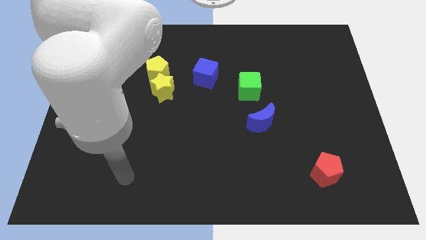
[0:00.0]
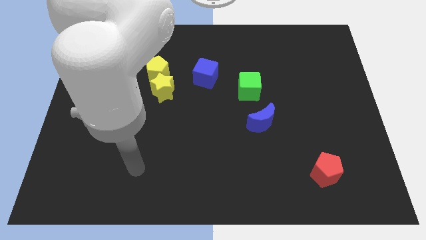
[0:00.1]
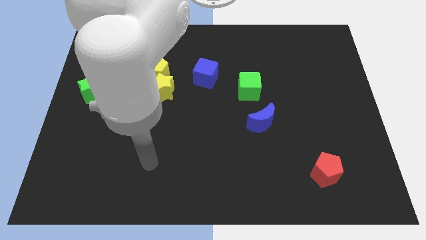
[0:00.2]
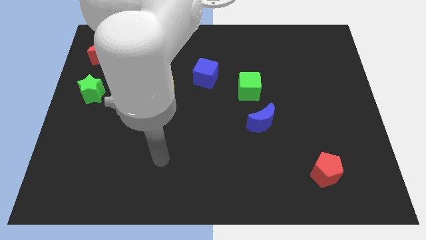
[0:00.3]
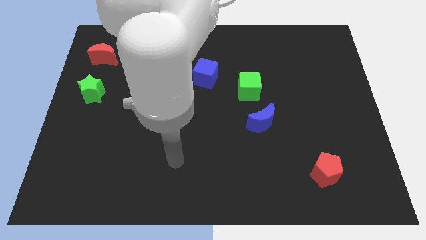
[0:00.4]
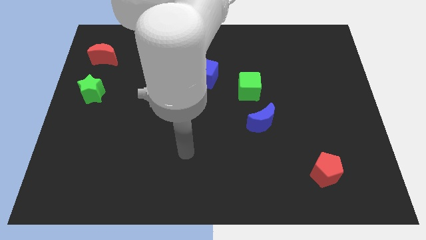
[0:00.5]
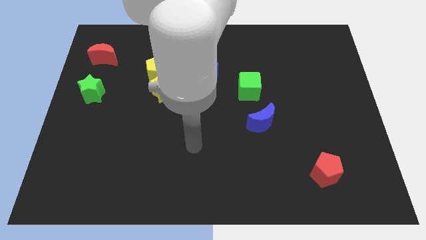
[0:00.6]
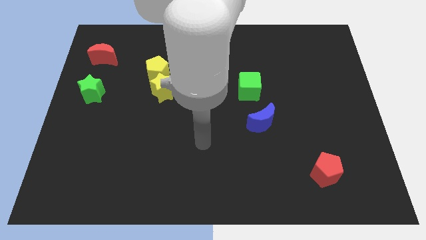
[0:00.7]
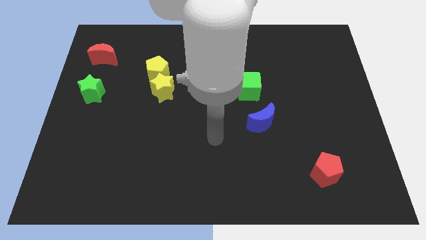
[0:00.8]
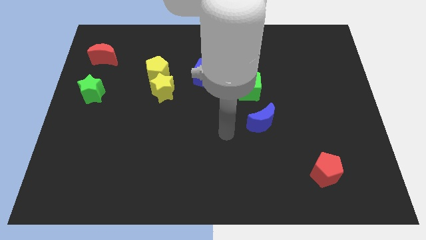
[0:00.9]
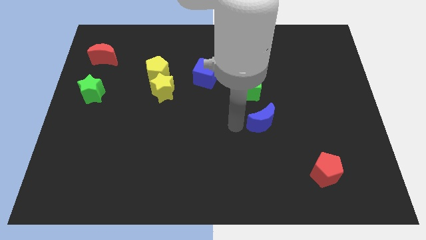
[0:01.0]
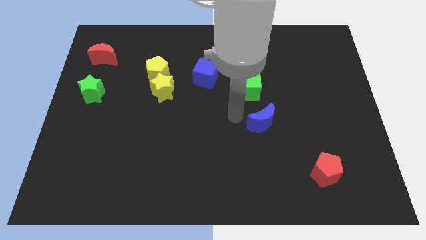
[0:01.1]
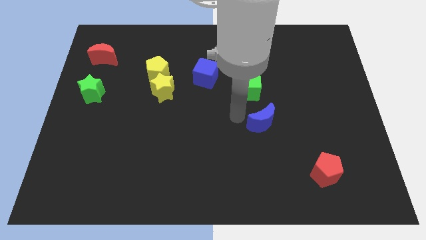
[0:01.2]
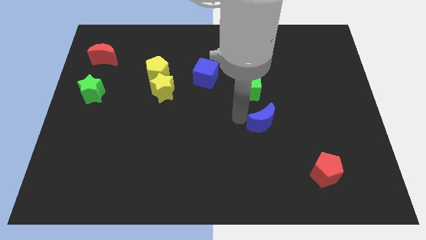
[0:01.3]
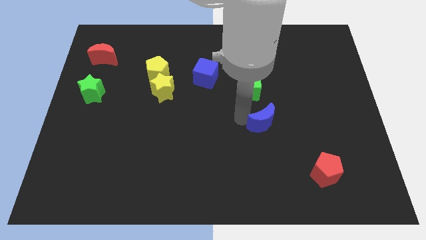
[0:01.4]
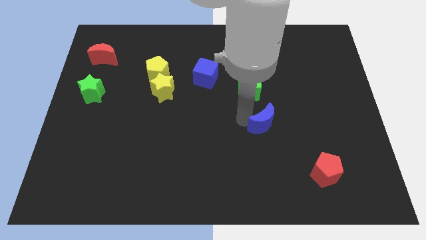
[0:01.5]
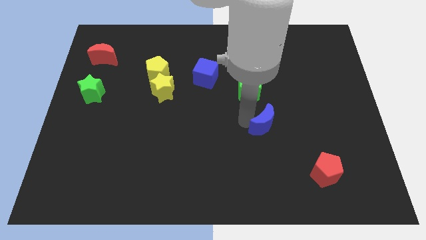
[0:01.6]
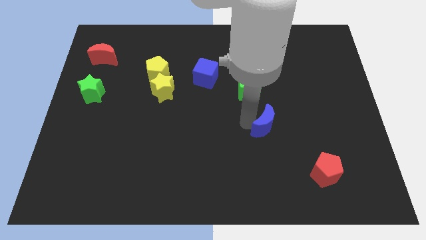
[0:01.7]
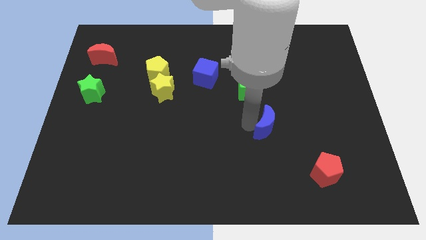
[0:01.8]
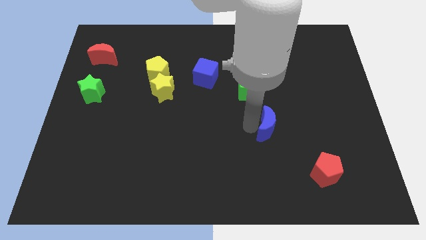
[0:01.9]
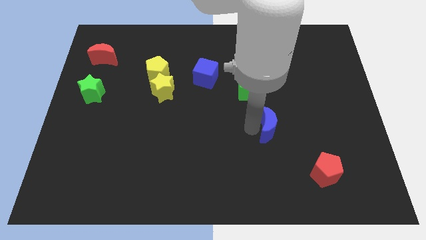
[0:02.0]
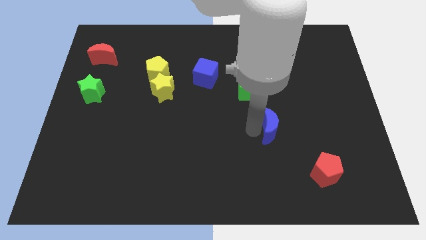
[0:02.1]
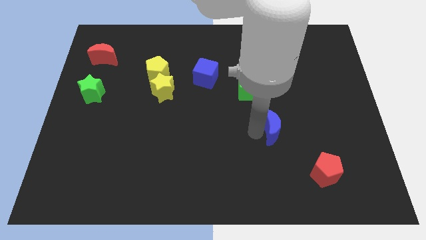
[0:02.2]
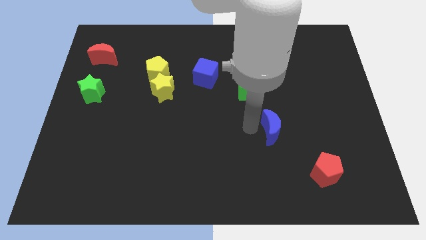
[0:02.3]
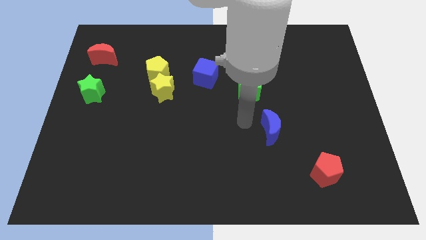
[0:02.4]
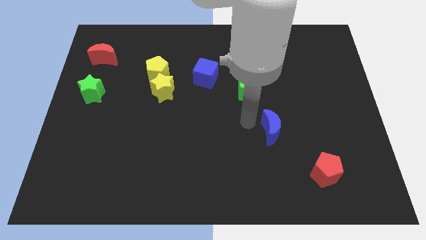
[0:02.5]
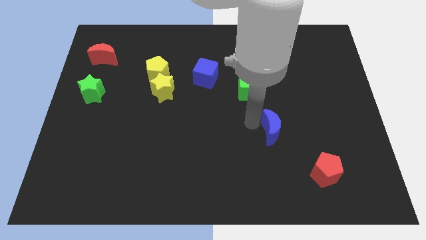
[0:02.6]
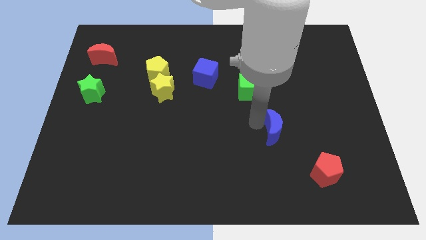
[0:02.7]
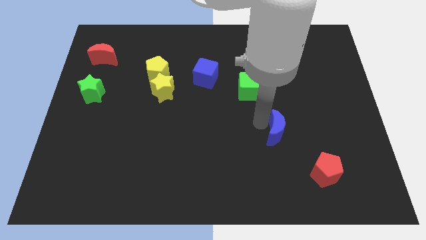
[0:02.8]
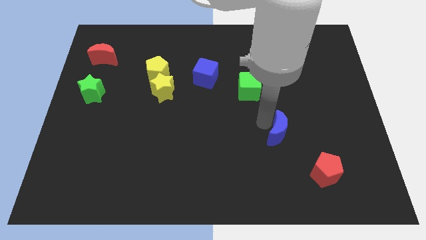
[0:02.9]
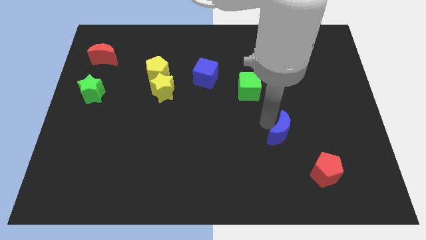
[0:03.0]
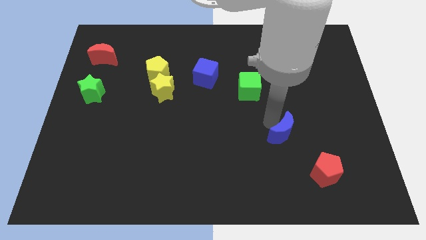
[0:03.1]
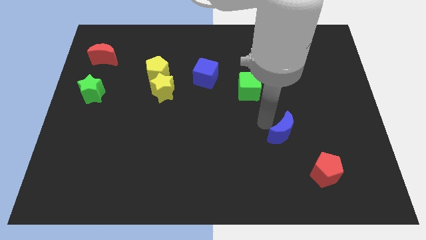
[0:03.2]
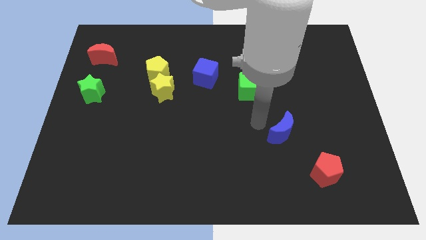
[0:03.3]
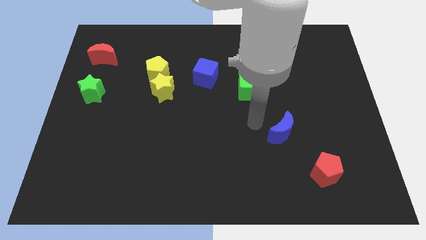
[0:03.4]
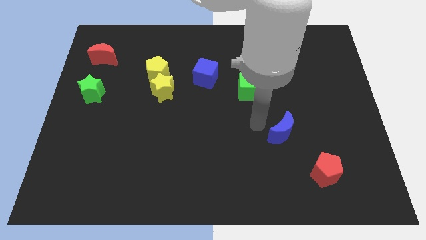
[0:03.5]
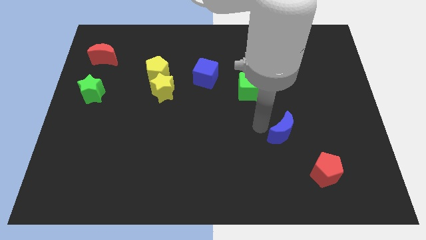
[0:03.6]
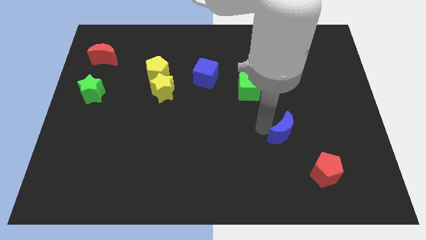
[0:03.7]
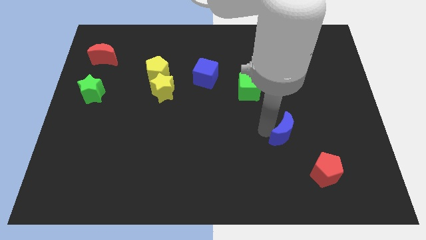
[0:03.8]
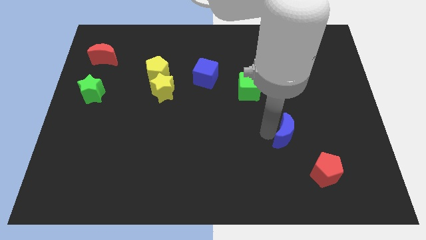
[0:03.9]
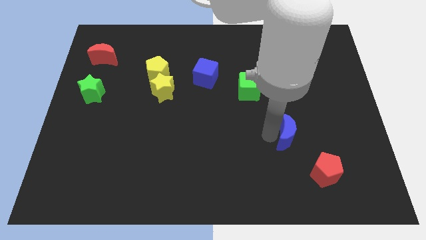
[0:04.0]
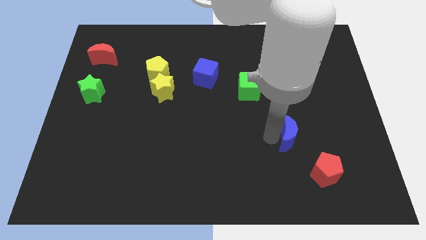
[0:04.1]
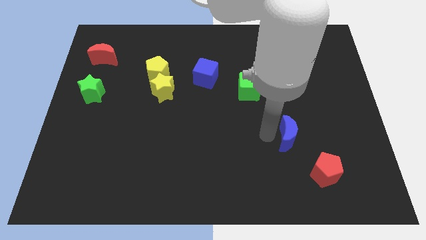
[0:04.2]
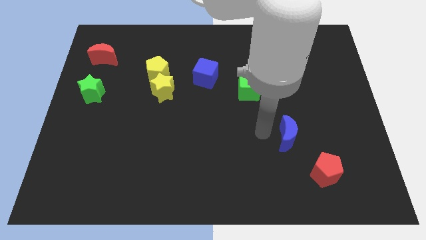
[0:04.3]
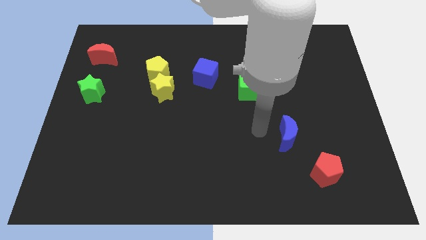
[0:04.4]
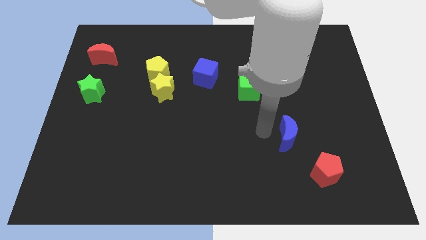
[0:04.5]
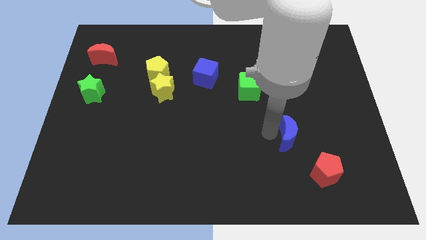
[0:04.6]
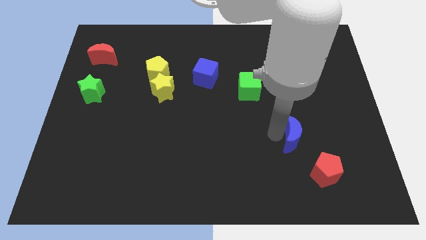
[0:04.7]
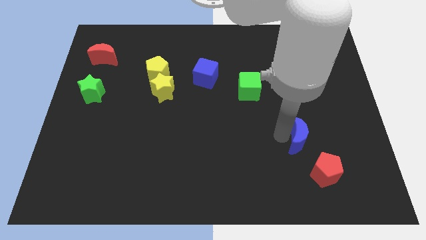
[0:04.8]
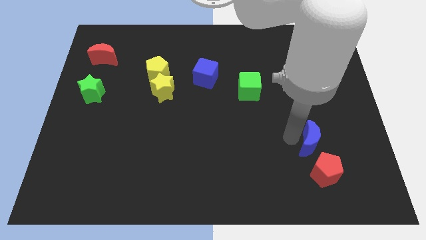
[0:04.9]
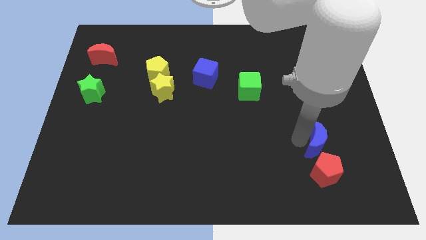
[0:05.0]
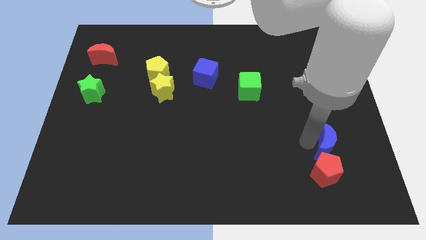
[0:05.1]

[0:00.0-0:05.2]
push the blue moon diagonally up and to the right of the red pentagon

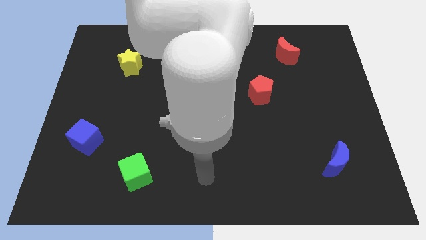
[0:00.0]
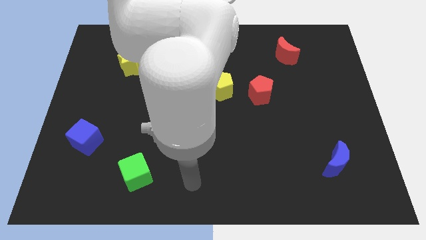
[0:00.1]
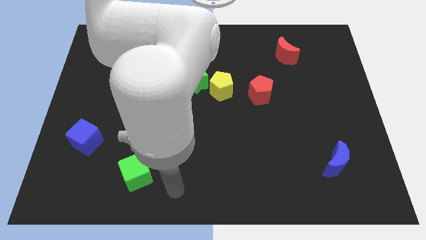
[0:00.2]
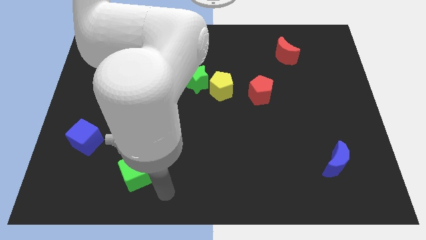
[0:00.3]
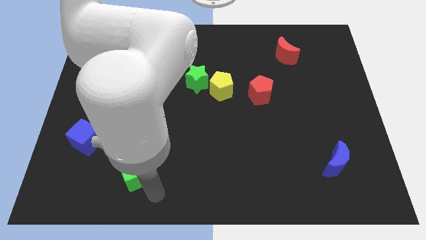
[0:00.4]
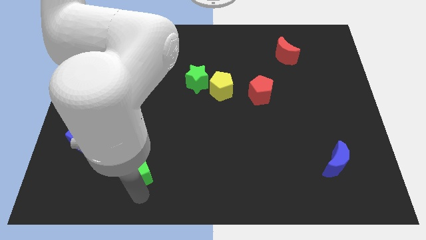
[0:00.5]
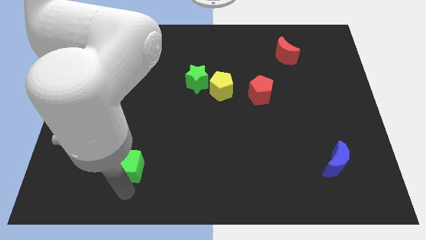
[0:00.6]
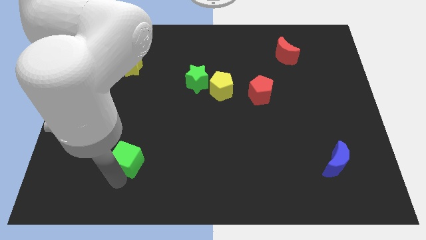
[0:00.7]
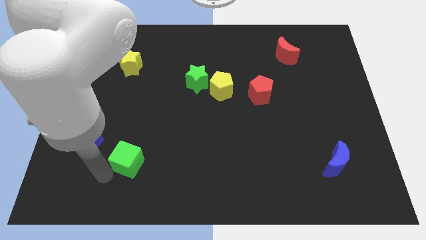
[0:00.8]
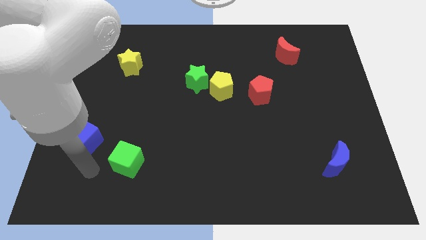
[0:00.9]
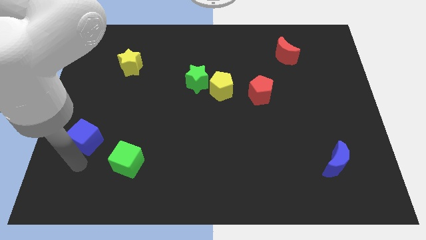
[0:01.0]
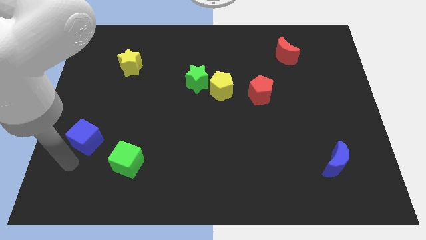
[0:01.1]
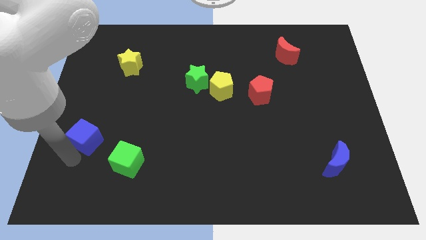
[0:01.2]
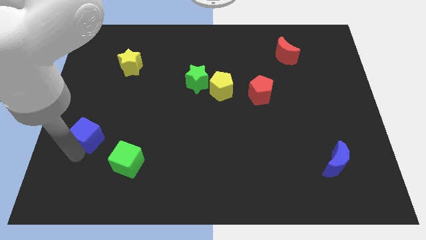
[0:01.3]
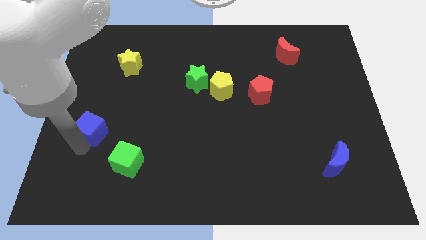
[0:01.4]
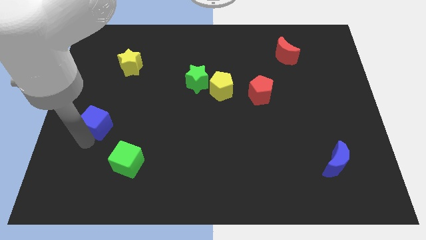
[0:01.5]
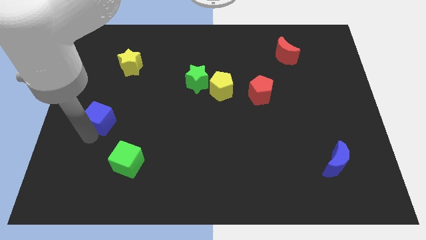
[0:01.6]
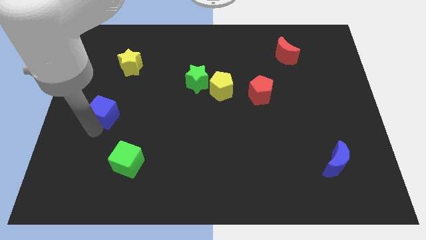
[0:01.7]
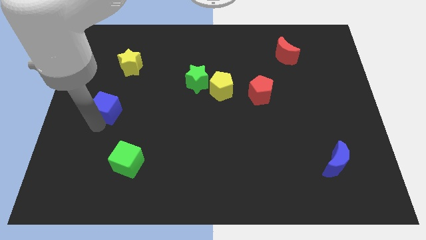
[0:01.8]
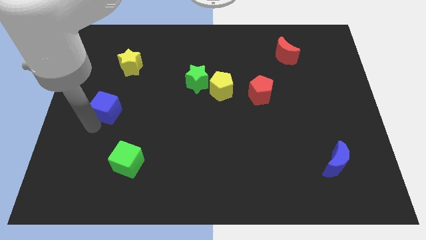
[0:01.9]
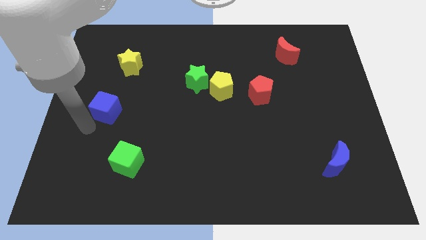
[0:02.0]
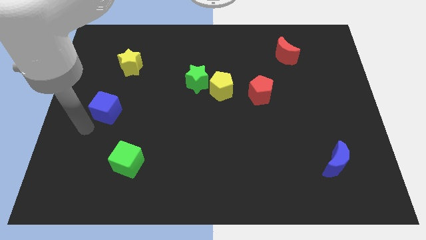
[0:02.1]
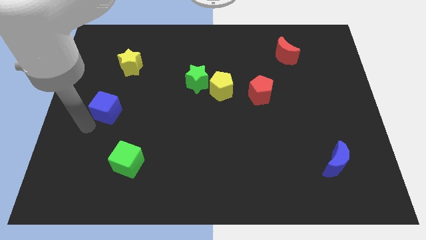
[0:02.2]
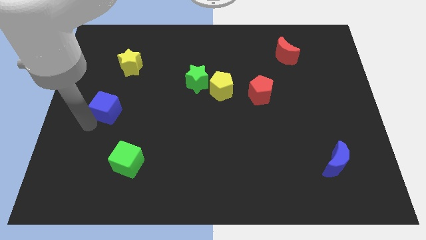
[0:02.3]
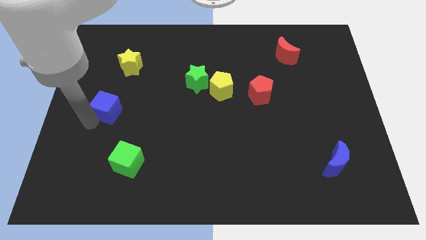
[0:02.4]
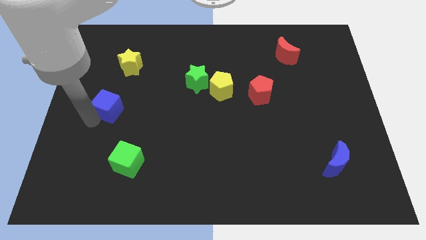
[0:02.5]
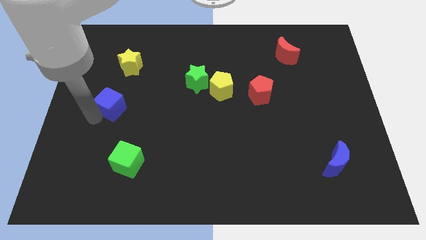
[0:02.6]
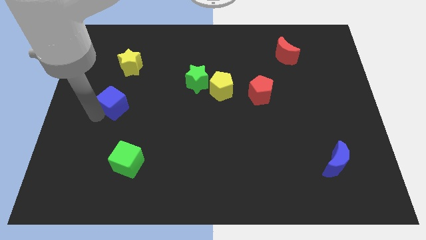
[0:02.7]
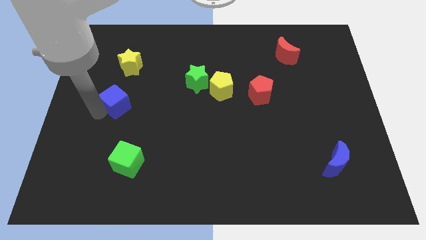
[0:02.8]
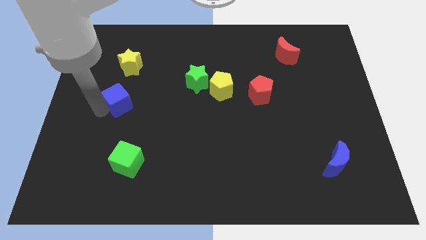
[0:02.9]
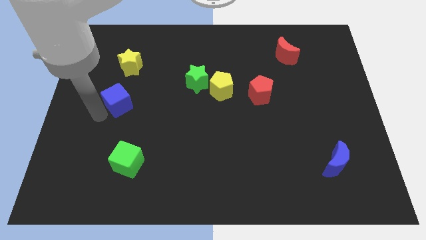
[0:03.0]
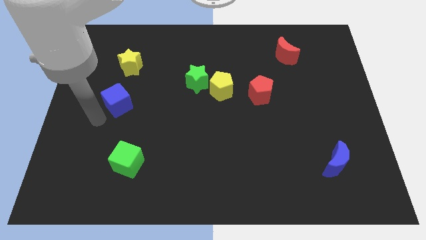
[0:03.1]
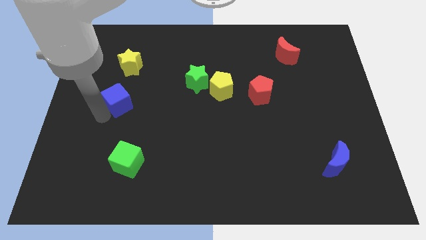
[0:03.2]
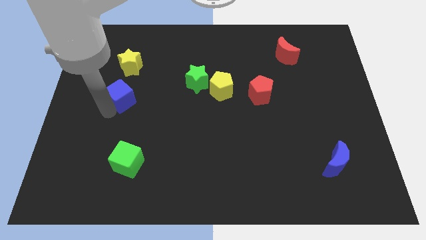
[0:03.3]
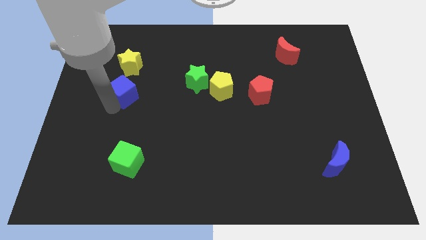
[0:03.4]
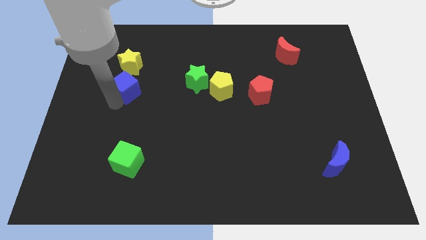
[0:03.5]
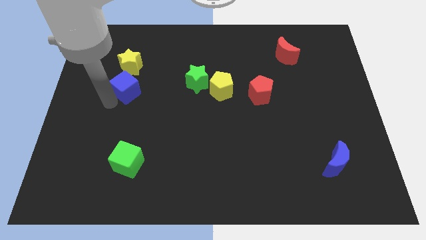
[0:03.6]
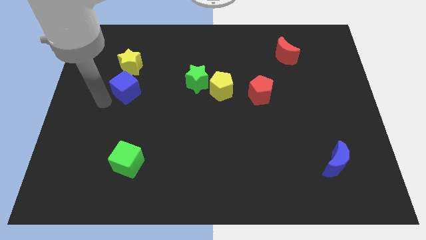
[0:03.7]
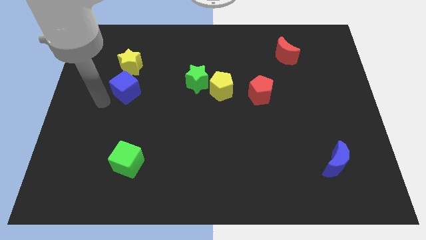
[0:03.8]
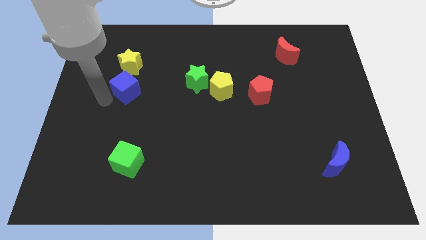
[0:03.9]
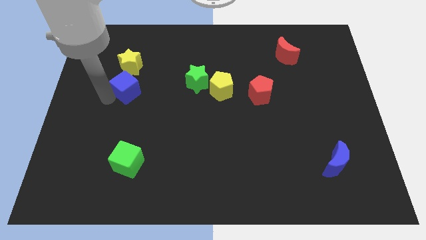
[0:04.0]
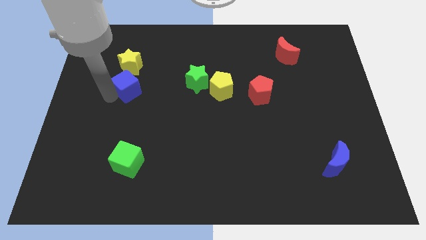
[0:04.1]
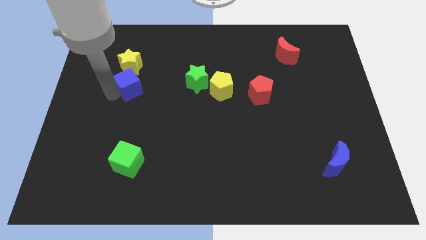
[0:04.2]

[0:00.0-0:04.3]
put the blue cube to the bottom right of the yellow star
